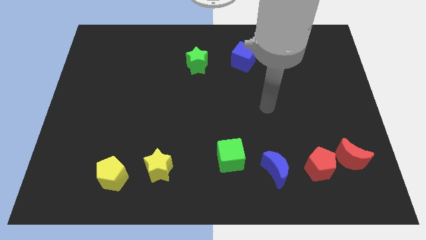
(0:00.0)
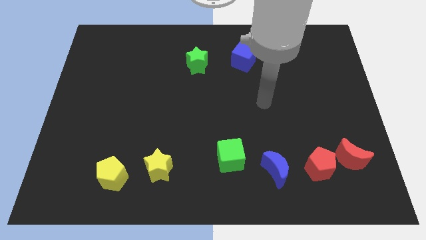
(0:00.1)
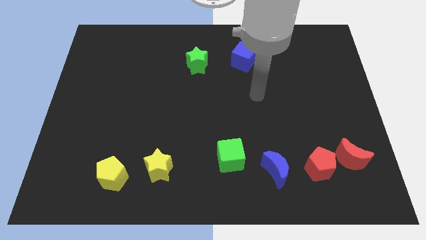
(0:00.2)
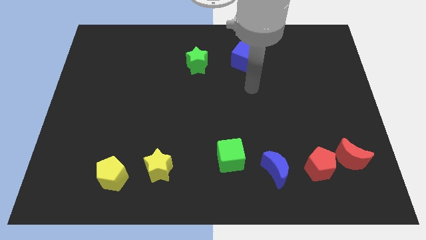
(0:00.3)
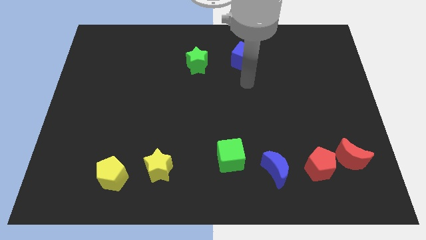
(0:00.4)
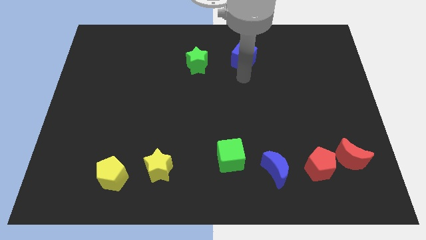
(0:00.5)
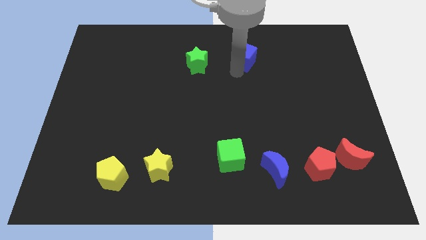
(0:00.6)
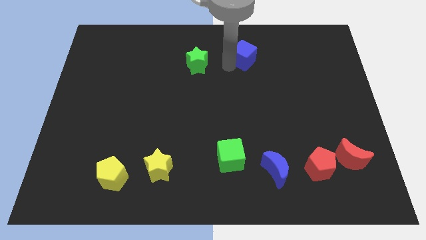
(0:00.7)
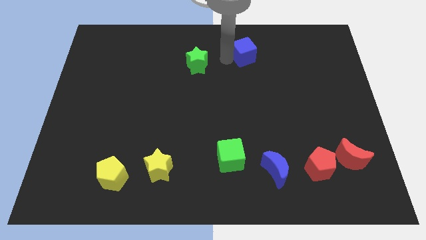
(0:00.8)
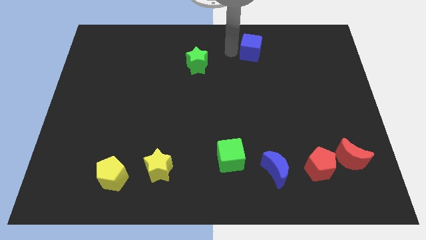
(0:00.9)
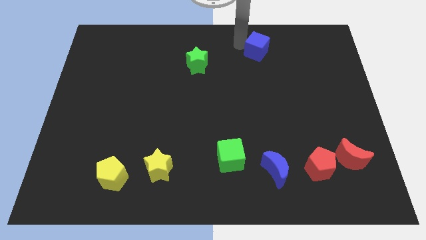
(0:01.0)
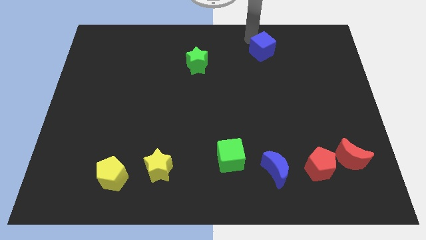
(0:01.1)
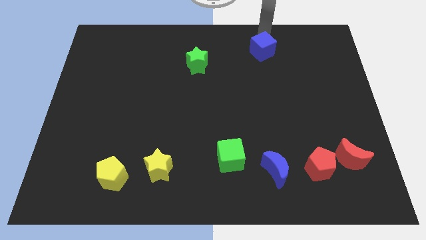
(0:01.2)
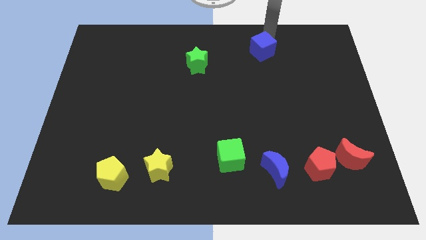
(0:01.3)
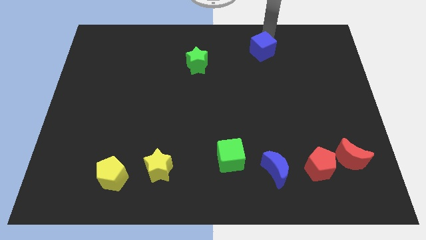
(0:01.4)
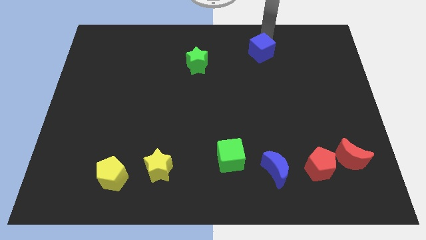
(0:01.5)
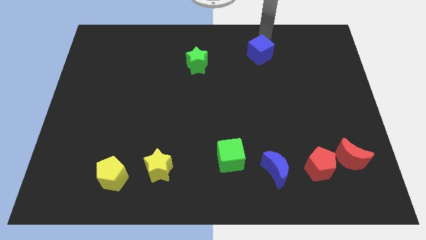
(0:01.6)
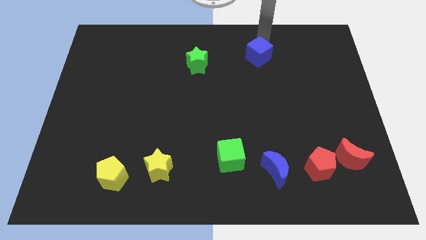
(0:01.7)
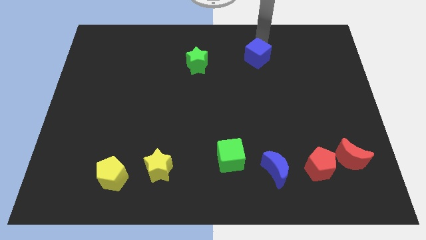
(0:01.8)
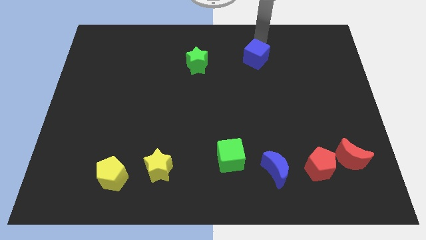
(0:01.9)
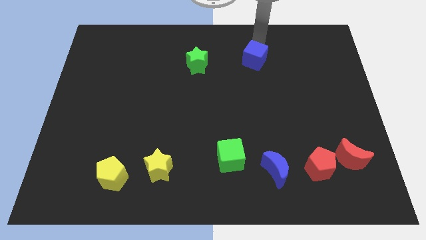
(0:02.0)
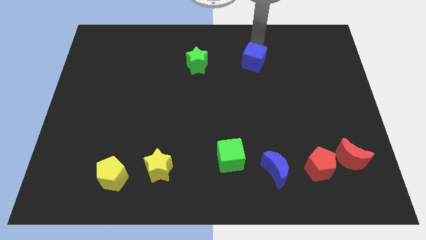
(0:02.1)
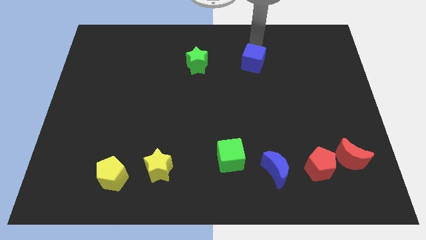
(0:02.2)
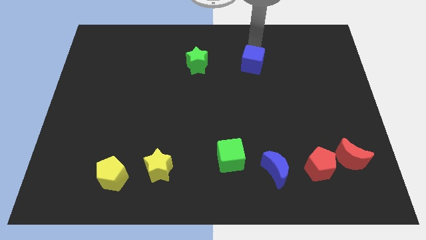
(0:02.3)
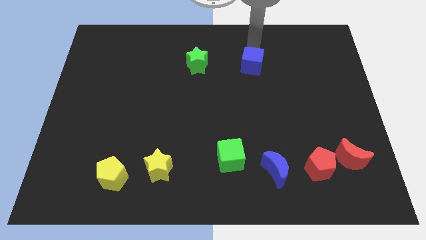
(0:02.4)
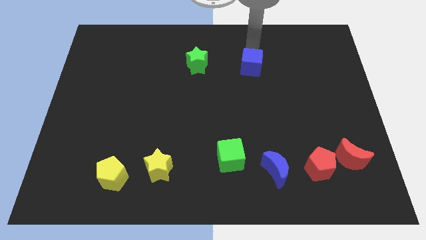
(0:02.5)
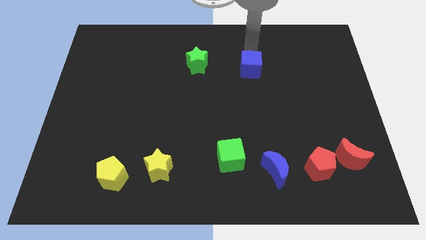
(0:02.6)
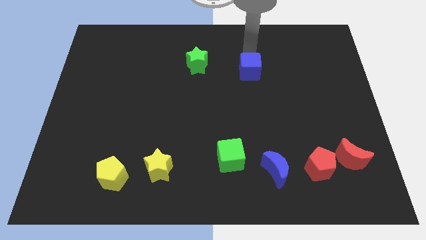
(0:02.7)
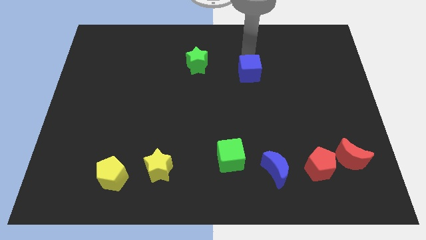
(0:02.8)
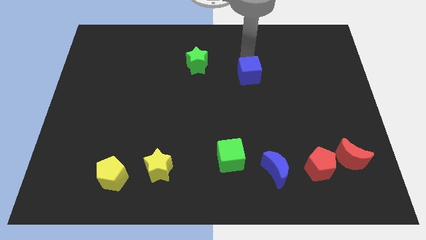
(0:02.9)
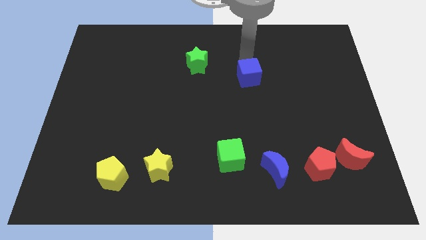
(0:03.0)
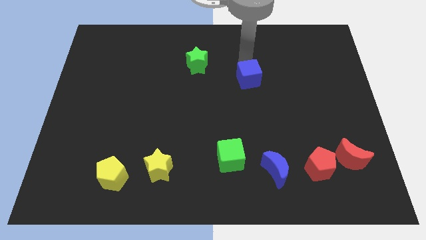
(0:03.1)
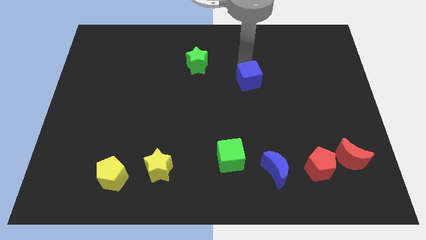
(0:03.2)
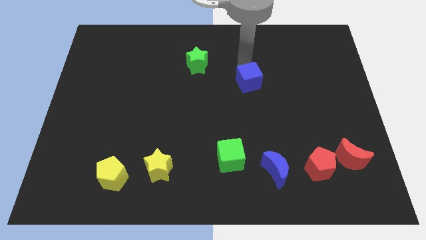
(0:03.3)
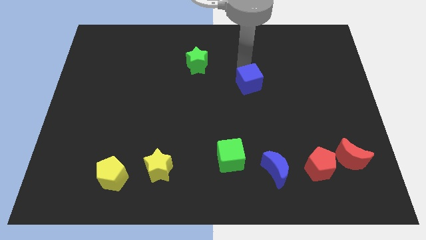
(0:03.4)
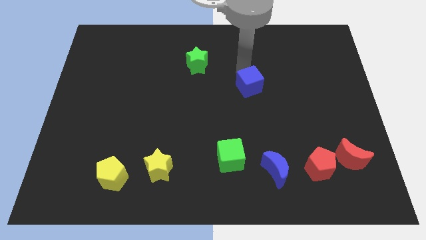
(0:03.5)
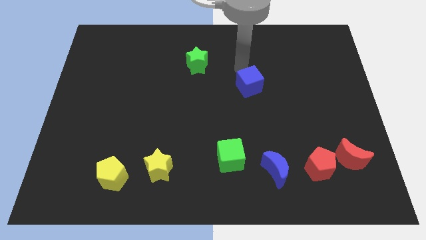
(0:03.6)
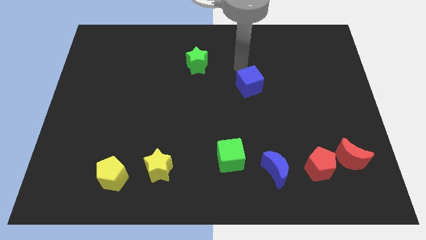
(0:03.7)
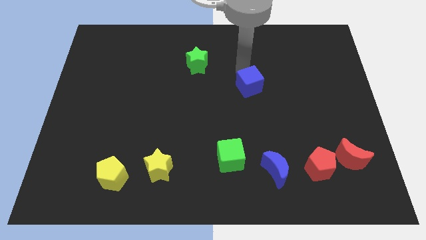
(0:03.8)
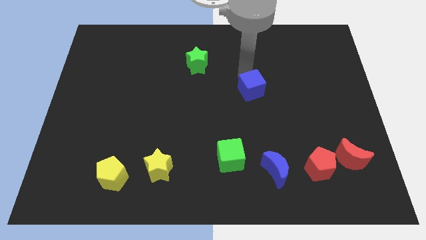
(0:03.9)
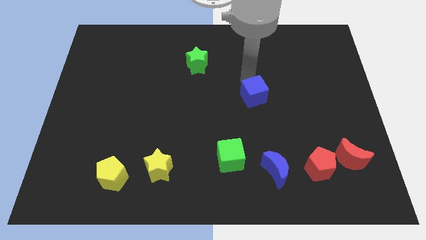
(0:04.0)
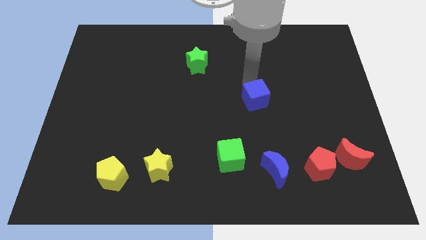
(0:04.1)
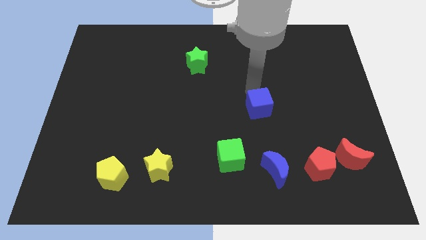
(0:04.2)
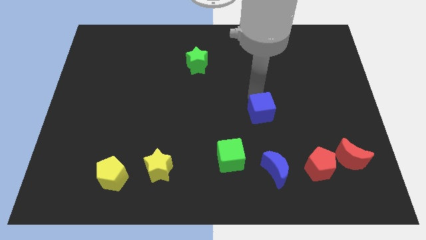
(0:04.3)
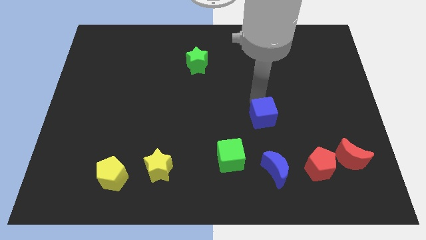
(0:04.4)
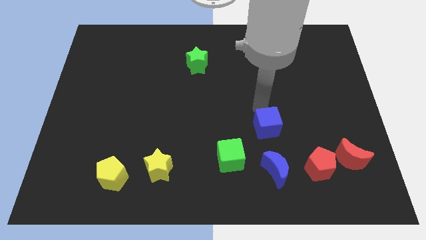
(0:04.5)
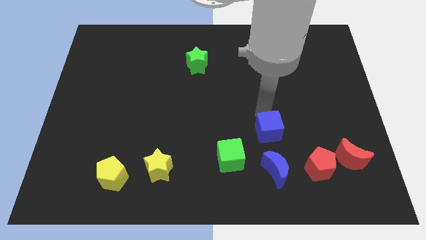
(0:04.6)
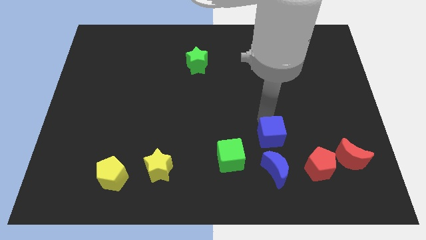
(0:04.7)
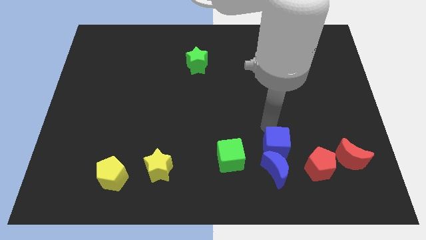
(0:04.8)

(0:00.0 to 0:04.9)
move the blue cube towards the blue moon

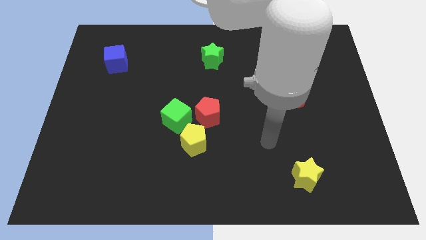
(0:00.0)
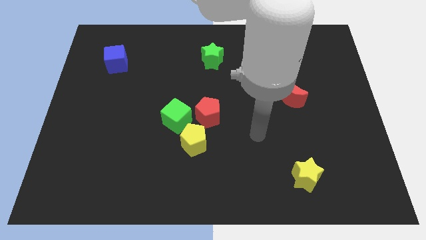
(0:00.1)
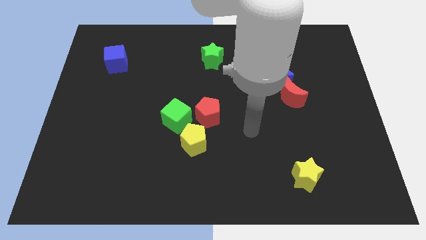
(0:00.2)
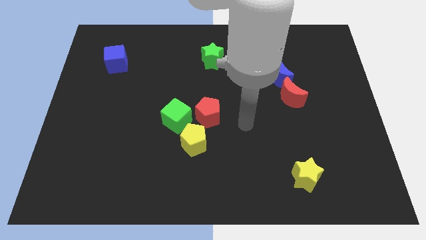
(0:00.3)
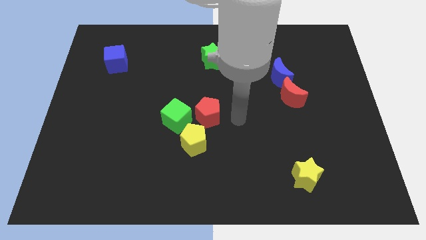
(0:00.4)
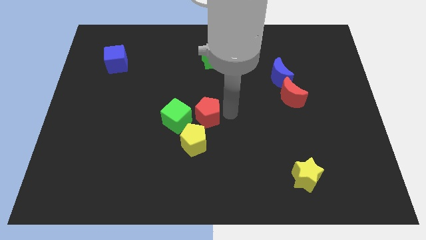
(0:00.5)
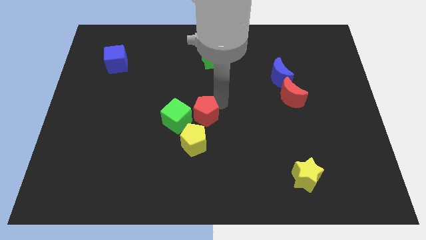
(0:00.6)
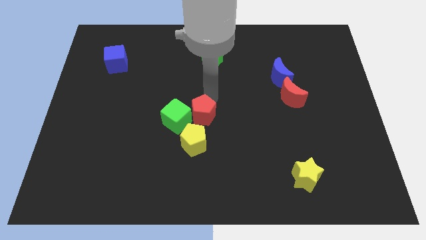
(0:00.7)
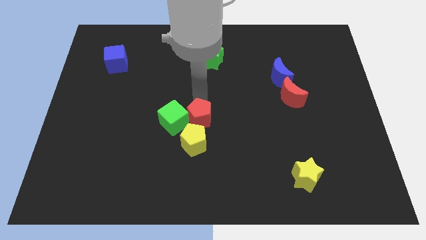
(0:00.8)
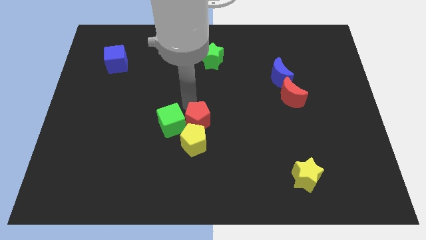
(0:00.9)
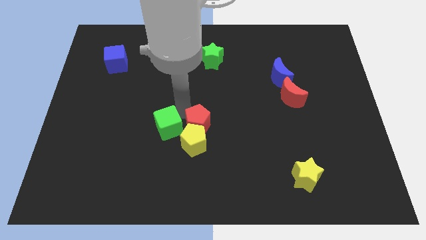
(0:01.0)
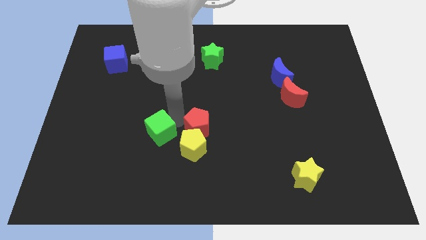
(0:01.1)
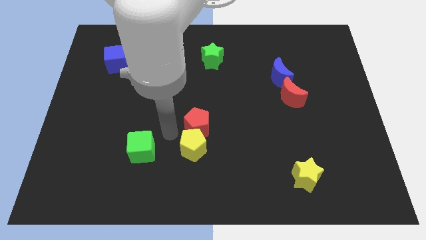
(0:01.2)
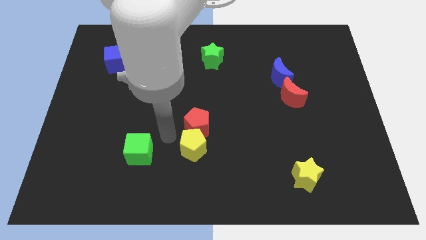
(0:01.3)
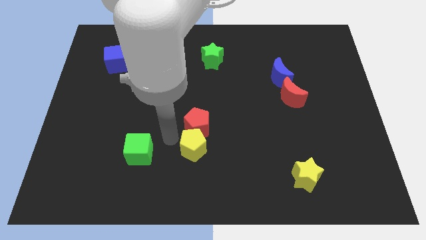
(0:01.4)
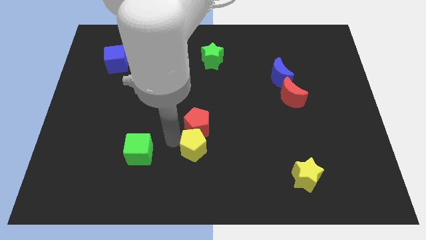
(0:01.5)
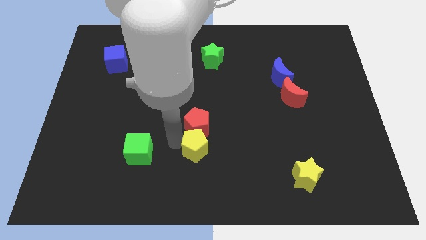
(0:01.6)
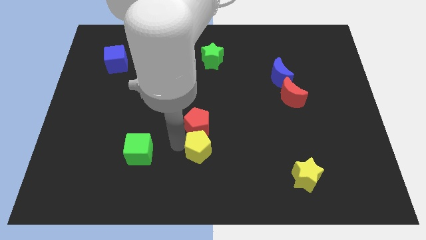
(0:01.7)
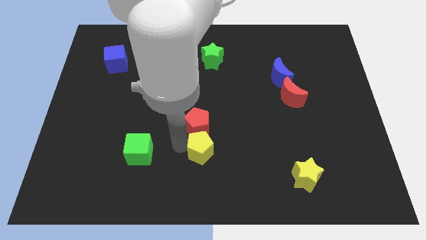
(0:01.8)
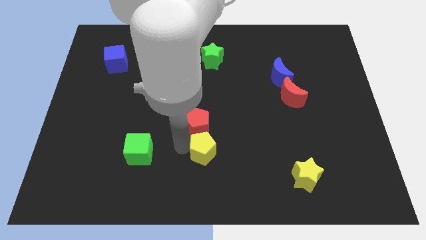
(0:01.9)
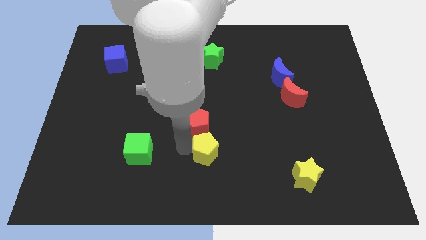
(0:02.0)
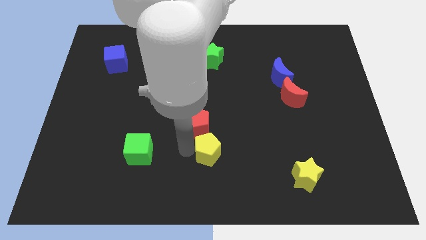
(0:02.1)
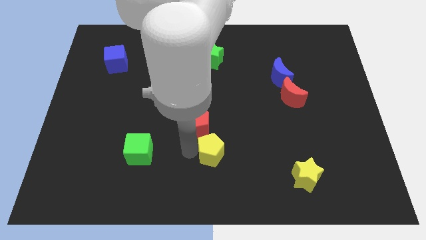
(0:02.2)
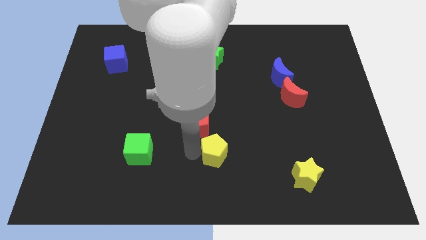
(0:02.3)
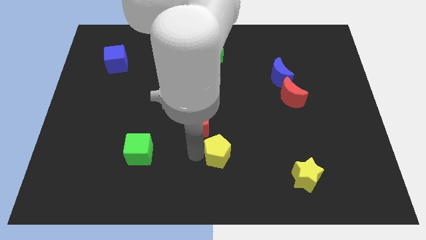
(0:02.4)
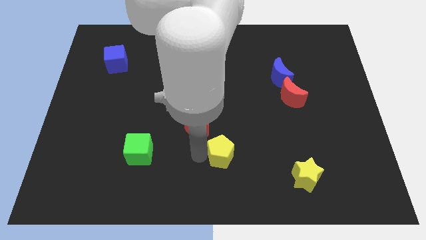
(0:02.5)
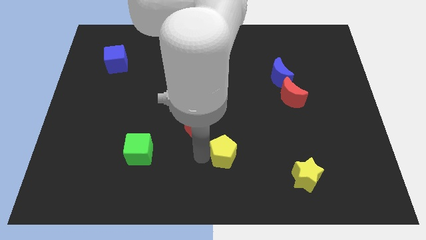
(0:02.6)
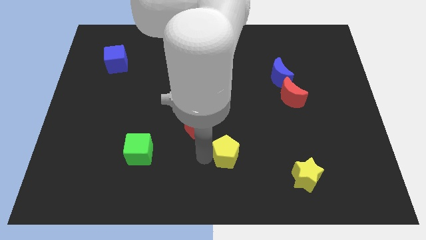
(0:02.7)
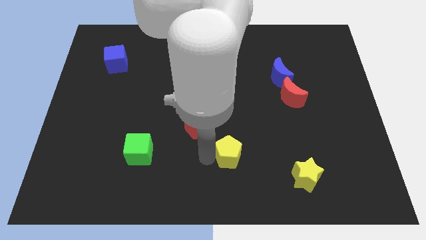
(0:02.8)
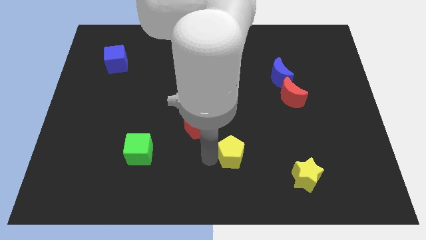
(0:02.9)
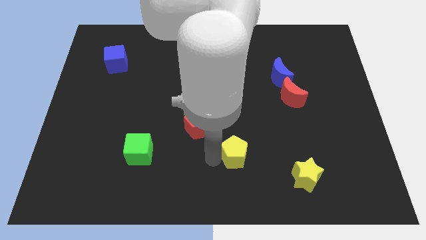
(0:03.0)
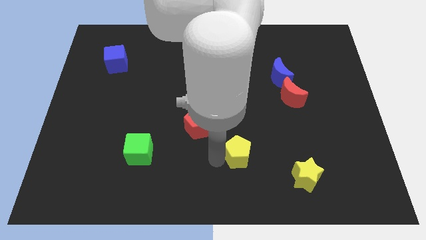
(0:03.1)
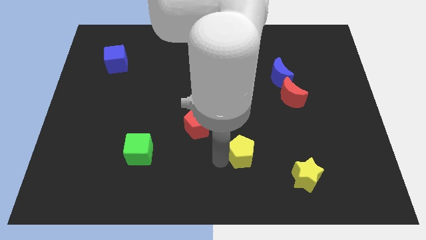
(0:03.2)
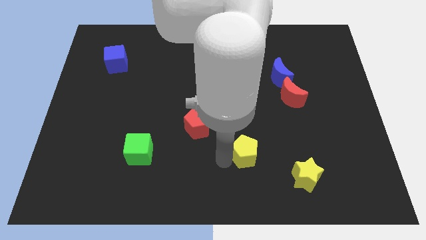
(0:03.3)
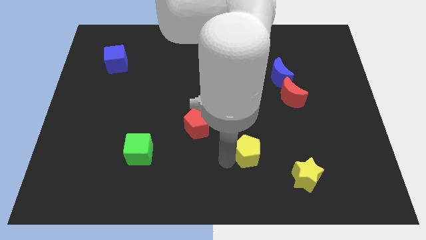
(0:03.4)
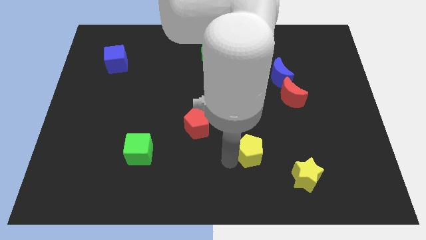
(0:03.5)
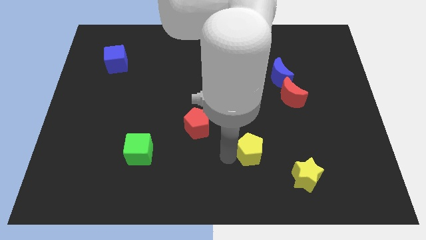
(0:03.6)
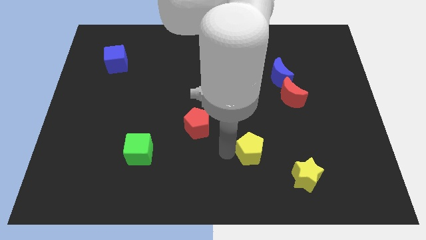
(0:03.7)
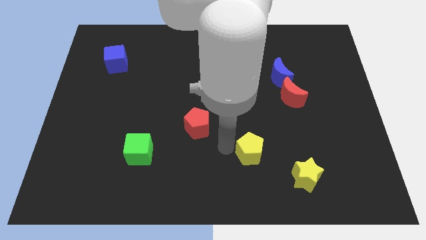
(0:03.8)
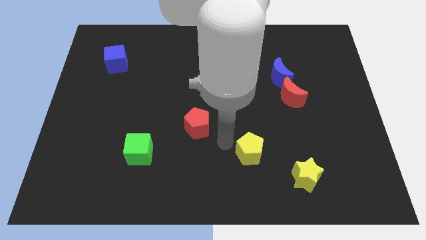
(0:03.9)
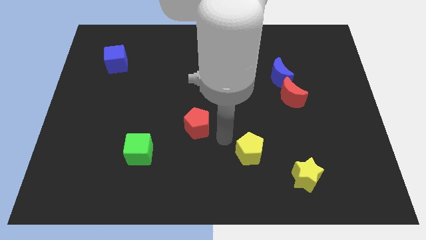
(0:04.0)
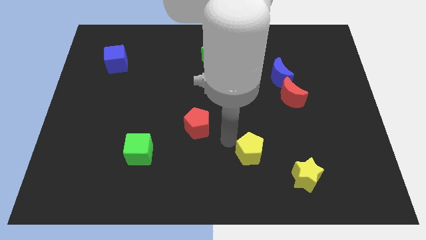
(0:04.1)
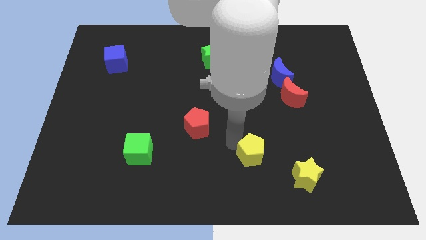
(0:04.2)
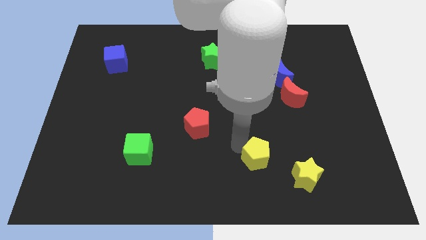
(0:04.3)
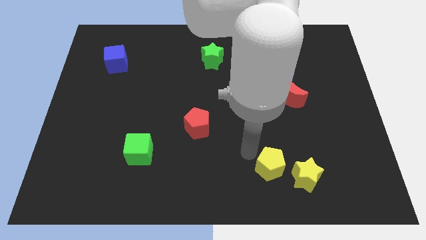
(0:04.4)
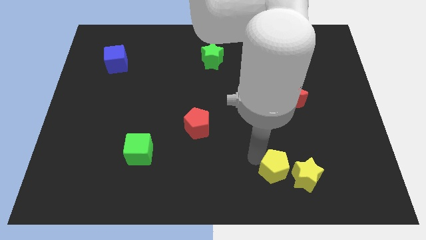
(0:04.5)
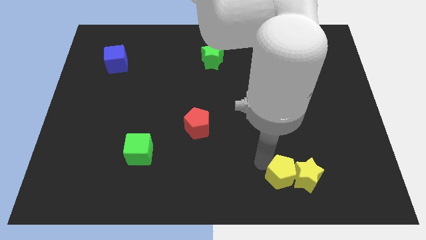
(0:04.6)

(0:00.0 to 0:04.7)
move the yellow pentagon close to the yellow star
